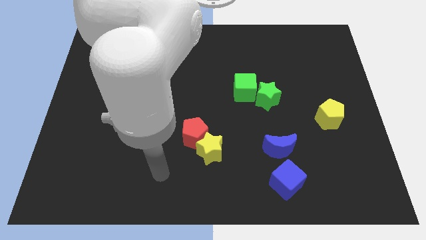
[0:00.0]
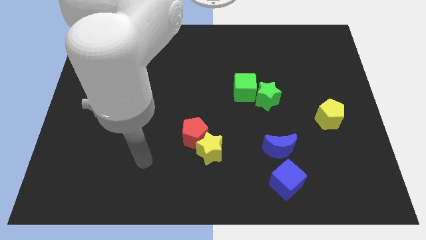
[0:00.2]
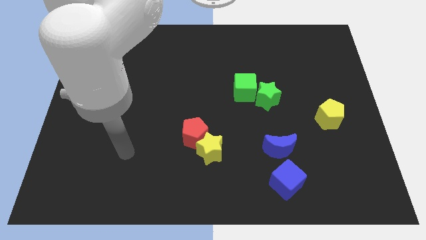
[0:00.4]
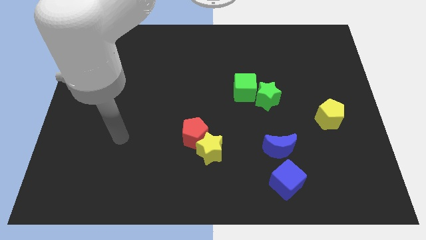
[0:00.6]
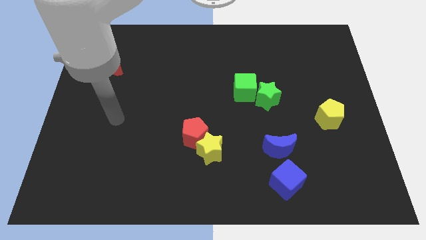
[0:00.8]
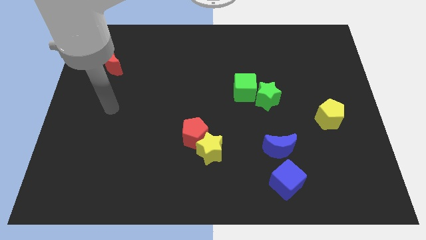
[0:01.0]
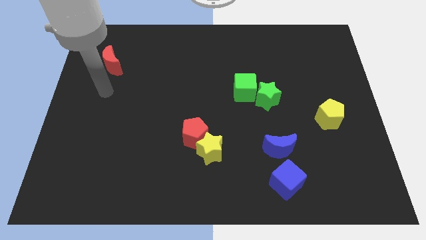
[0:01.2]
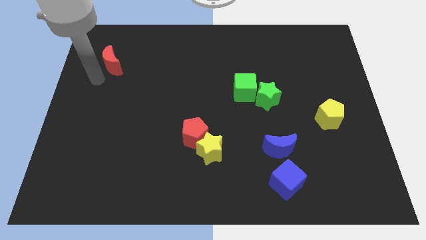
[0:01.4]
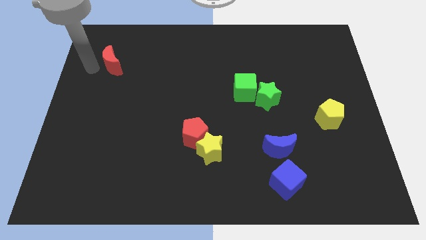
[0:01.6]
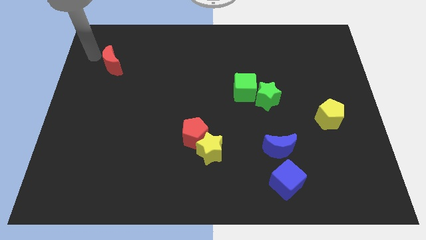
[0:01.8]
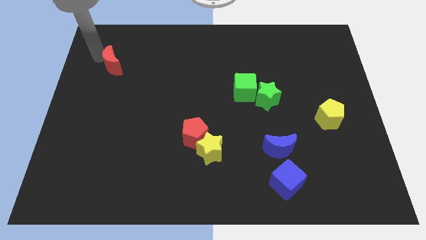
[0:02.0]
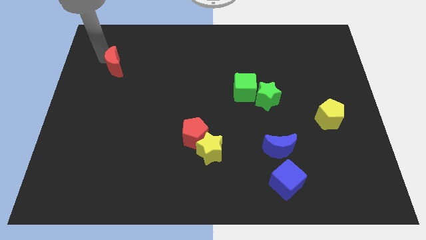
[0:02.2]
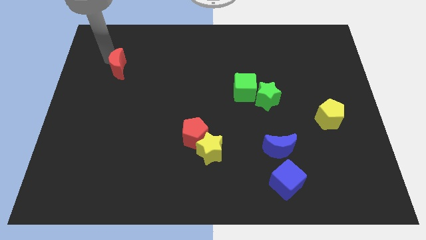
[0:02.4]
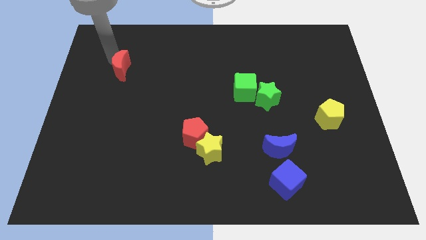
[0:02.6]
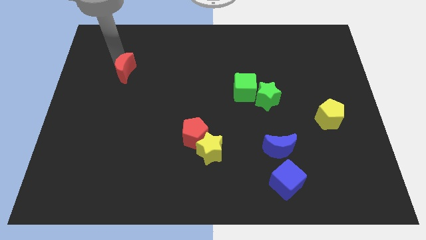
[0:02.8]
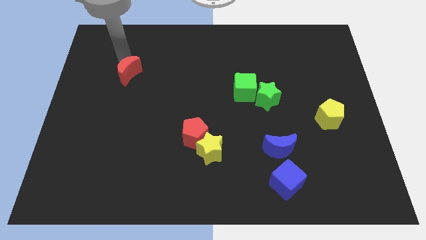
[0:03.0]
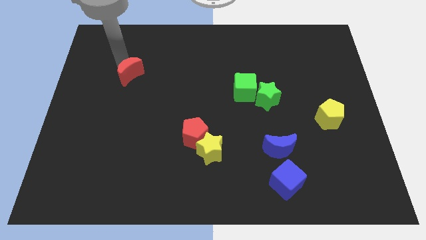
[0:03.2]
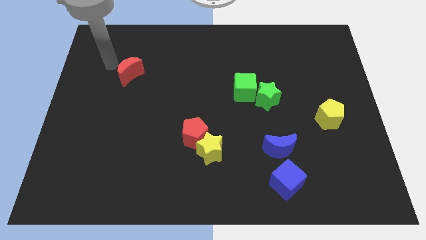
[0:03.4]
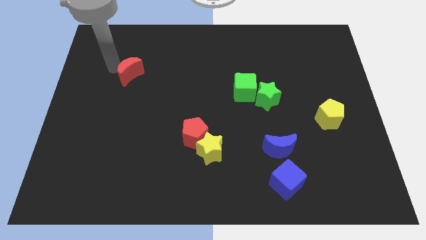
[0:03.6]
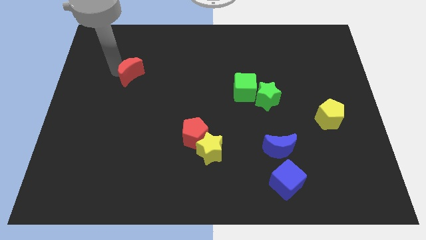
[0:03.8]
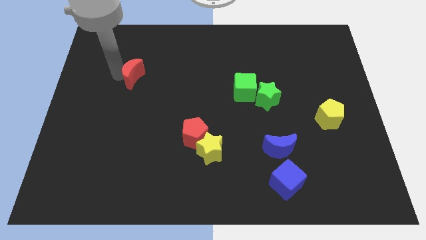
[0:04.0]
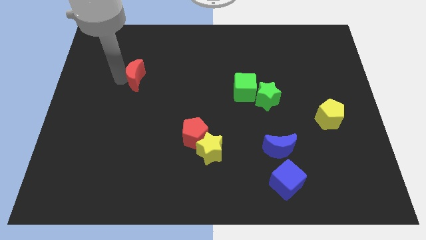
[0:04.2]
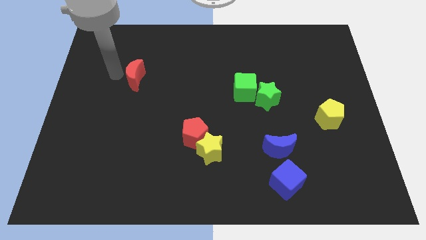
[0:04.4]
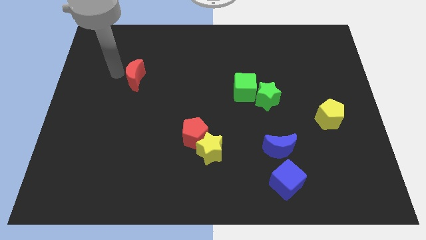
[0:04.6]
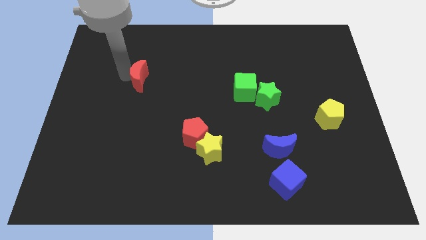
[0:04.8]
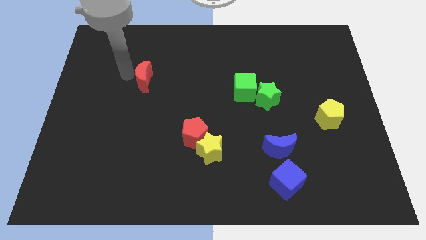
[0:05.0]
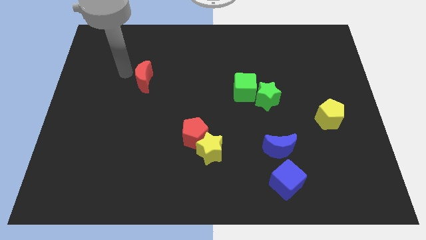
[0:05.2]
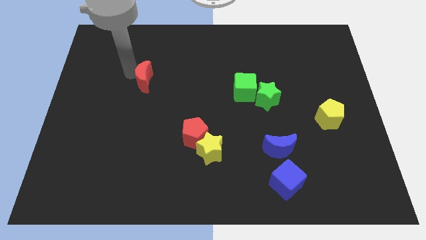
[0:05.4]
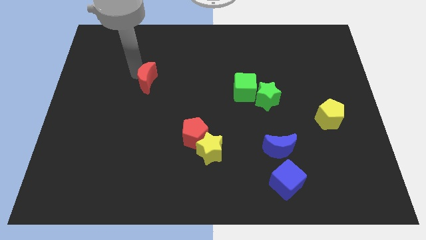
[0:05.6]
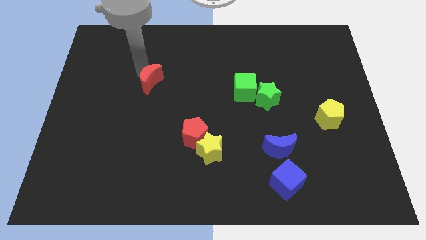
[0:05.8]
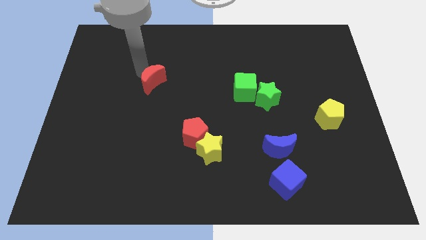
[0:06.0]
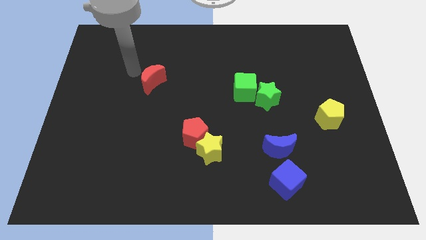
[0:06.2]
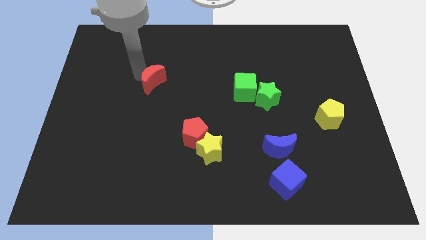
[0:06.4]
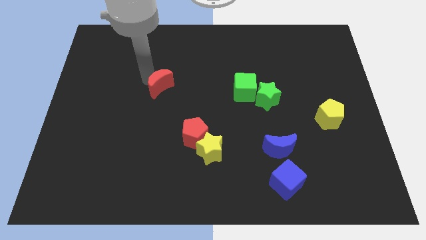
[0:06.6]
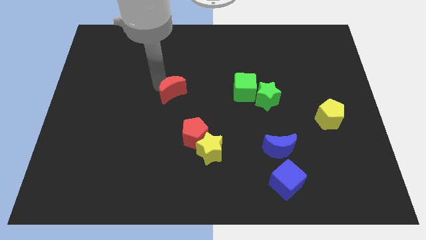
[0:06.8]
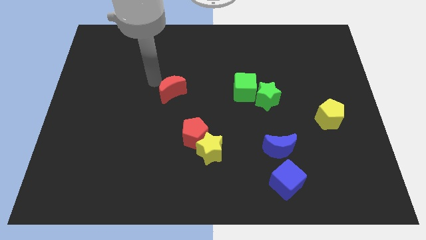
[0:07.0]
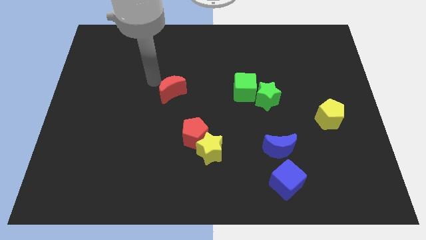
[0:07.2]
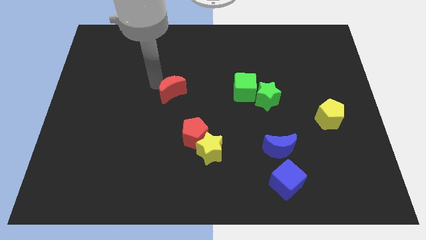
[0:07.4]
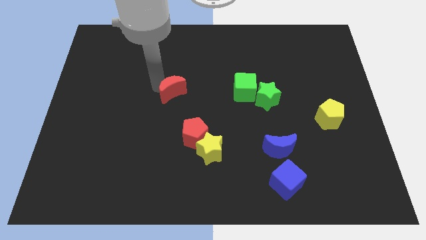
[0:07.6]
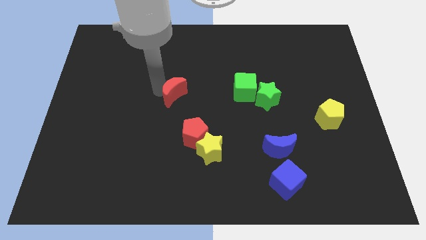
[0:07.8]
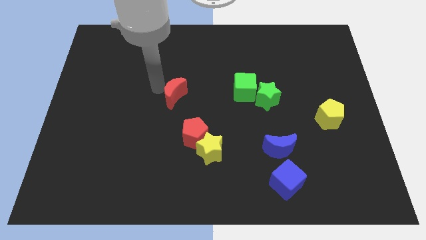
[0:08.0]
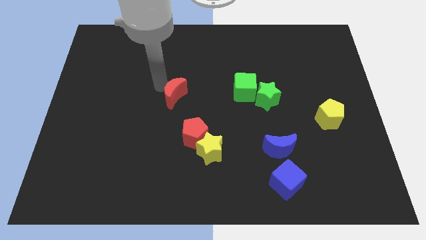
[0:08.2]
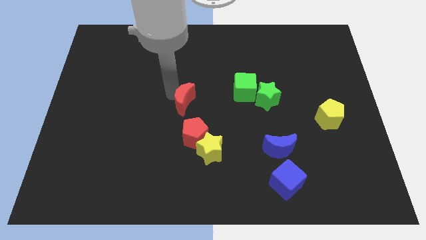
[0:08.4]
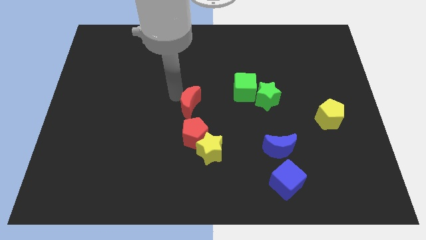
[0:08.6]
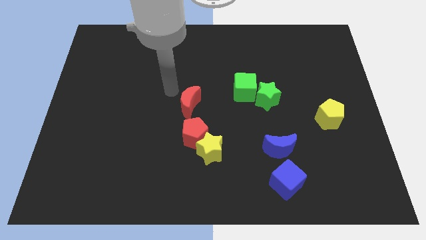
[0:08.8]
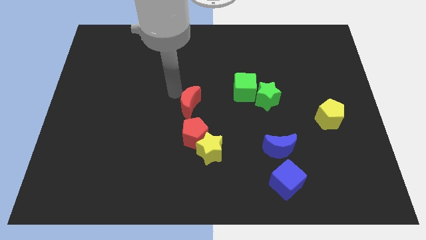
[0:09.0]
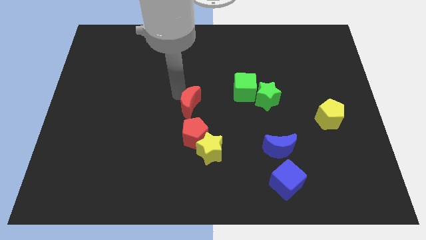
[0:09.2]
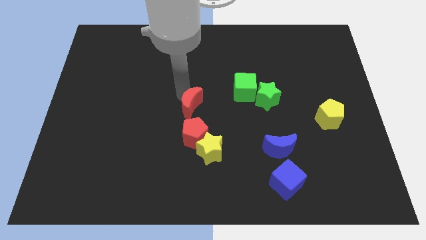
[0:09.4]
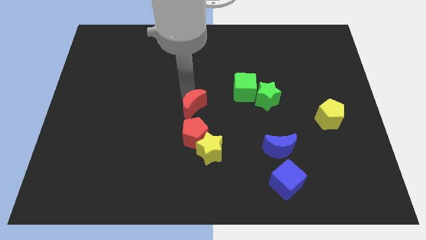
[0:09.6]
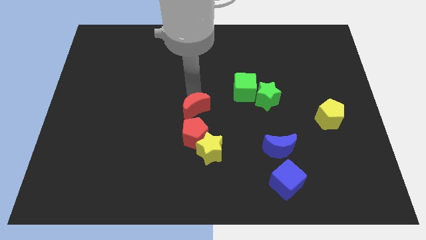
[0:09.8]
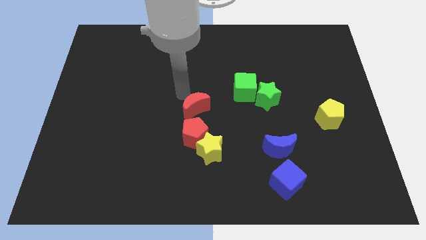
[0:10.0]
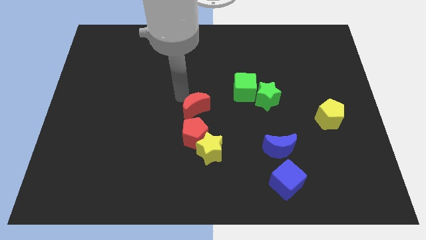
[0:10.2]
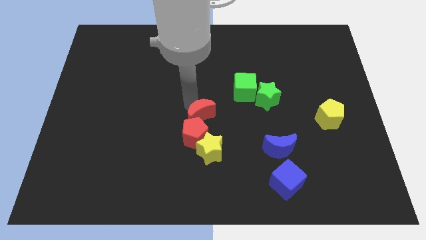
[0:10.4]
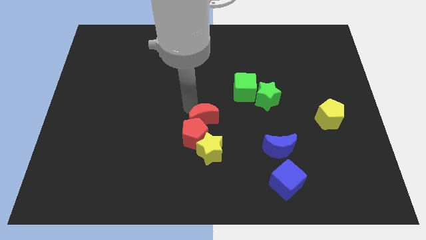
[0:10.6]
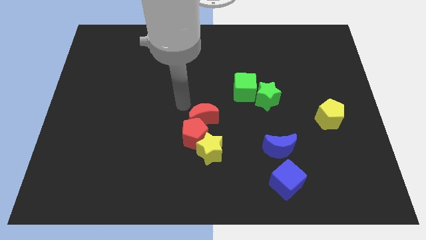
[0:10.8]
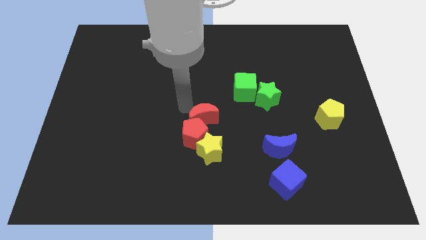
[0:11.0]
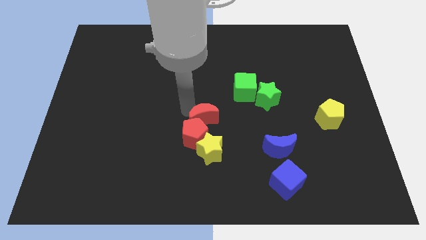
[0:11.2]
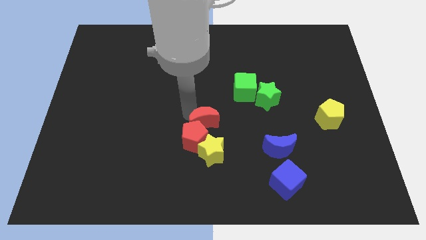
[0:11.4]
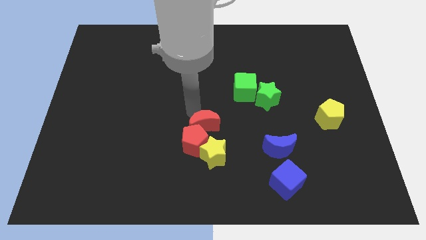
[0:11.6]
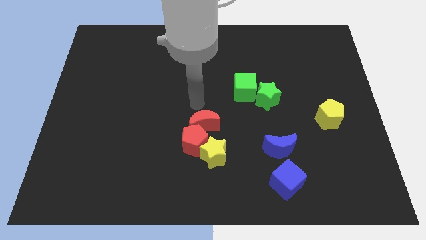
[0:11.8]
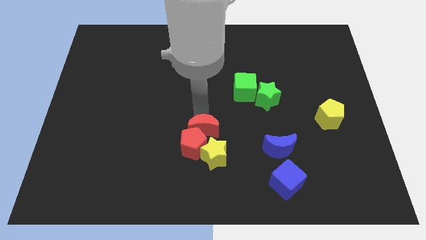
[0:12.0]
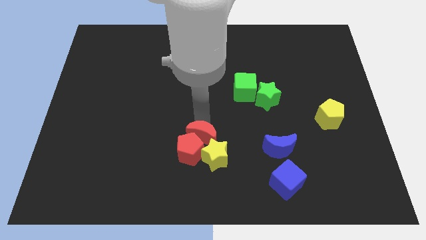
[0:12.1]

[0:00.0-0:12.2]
put the red moon to the yellow star
